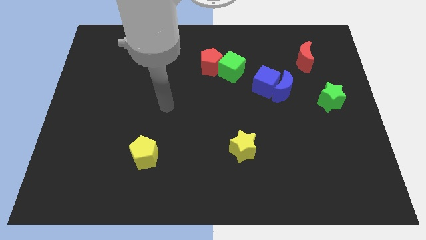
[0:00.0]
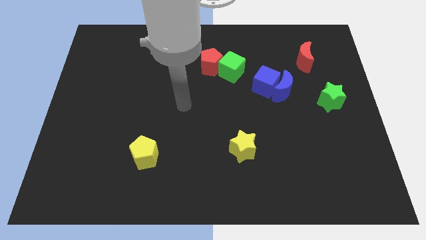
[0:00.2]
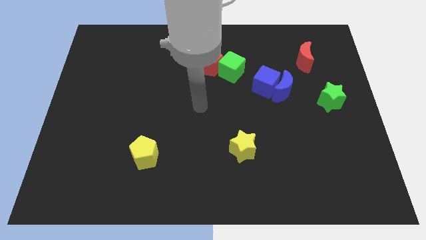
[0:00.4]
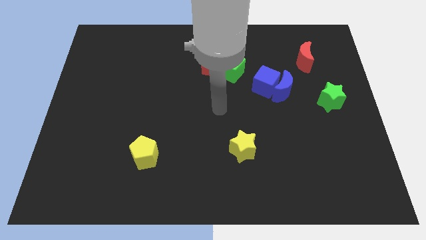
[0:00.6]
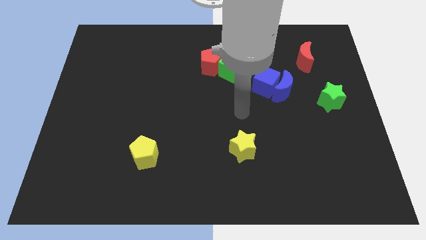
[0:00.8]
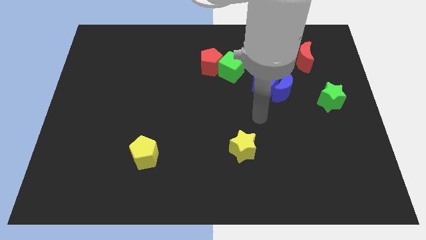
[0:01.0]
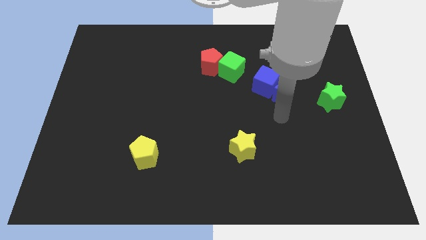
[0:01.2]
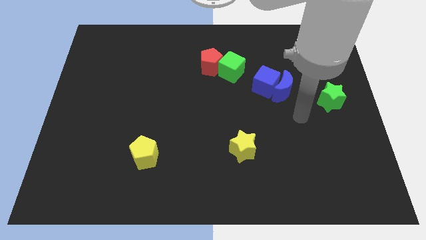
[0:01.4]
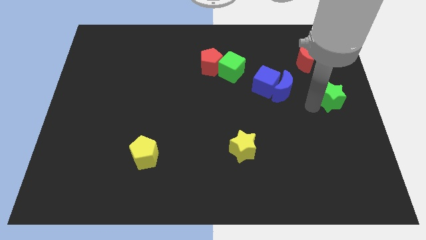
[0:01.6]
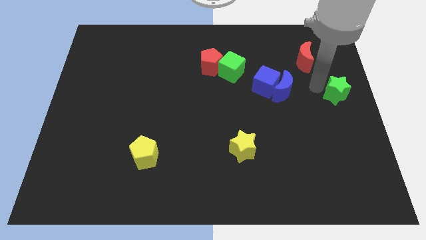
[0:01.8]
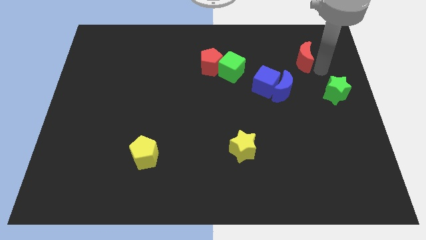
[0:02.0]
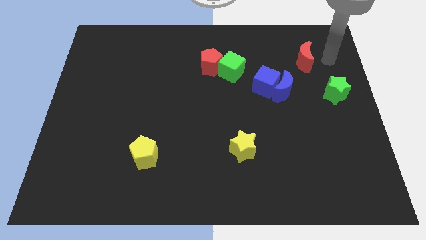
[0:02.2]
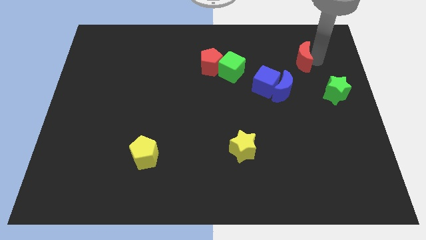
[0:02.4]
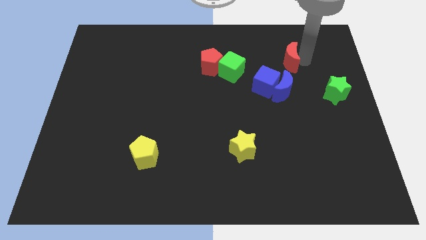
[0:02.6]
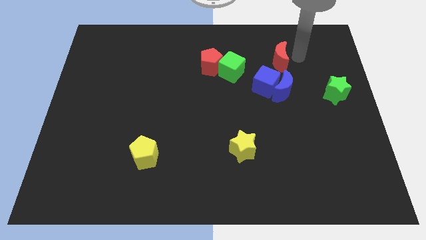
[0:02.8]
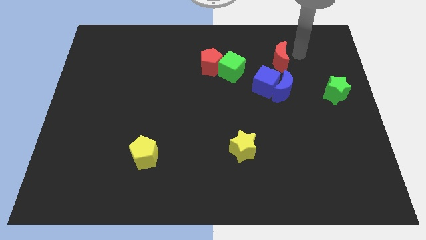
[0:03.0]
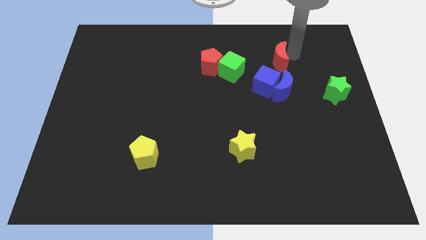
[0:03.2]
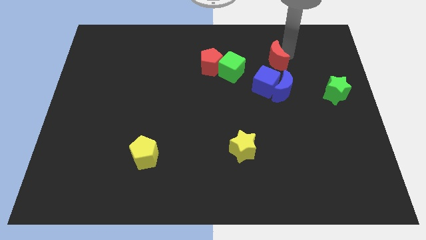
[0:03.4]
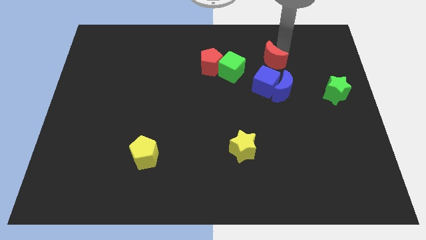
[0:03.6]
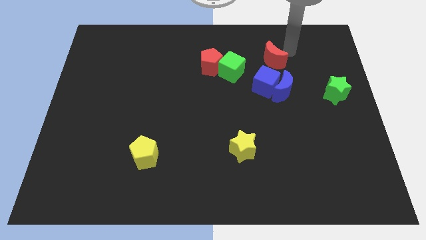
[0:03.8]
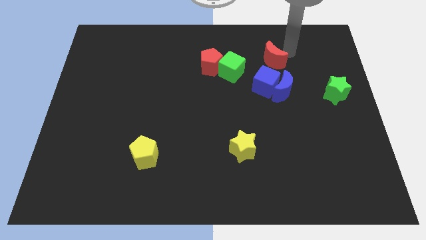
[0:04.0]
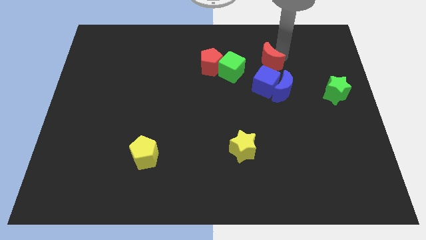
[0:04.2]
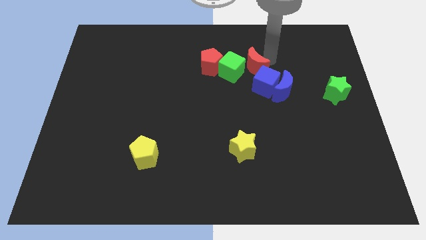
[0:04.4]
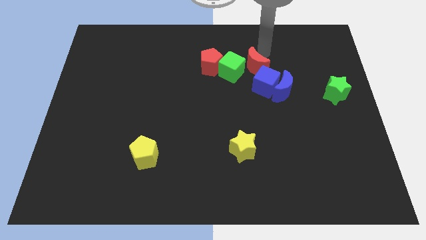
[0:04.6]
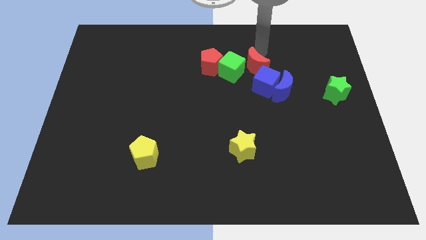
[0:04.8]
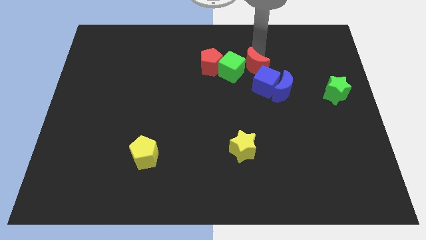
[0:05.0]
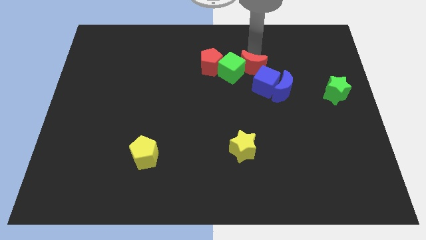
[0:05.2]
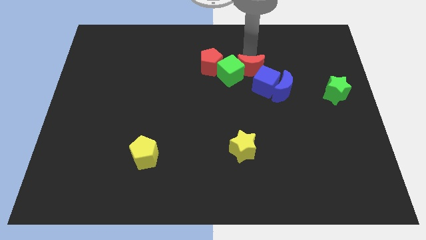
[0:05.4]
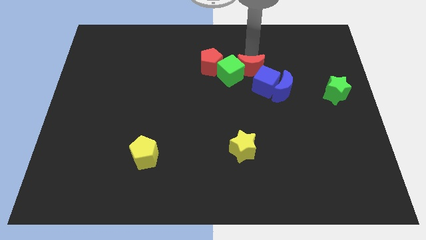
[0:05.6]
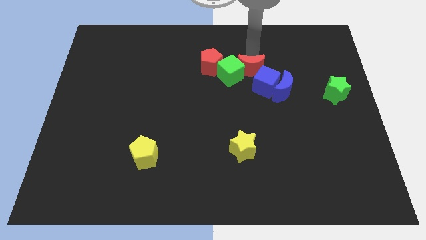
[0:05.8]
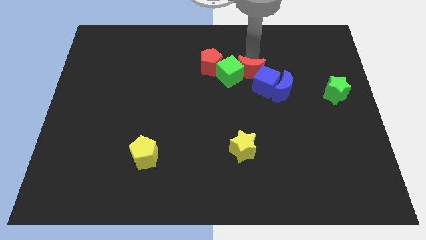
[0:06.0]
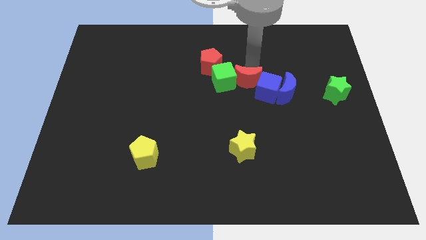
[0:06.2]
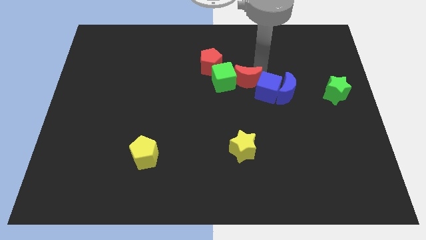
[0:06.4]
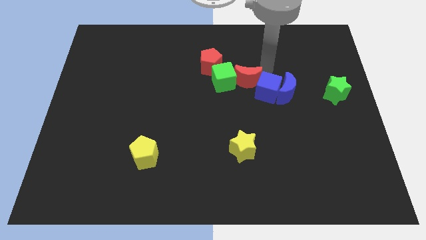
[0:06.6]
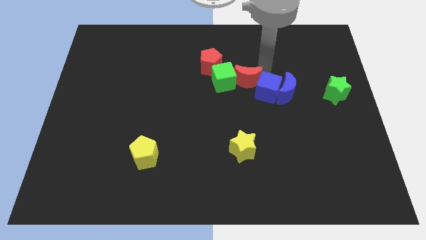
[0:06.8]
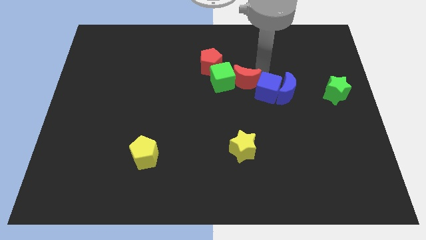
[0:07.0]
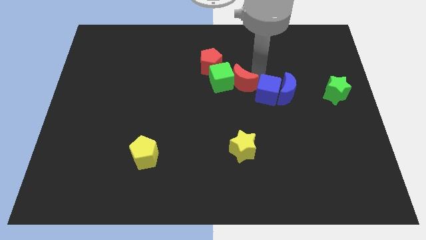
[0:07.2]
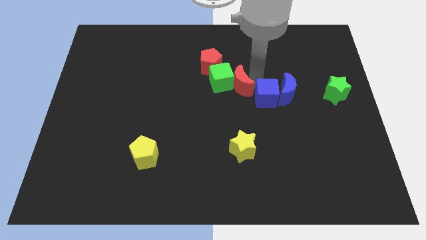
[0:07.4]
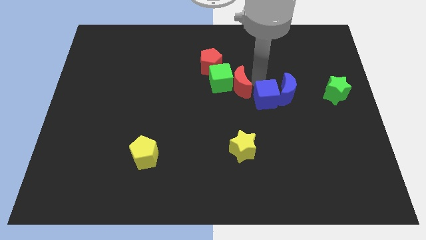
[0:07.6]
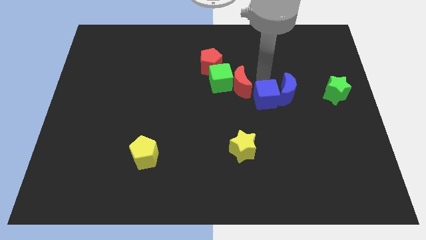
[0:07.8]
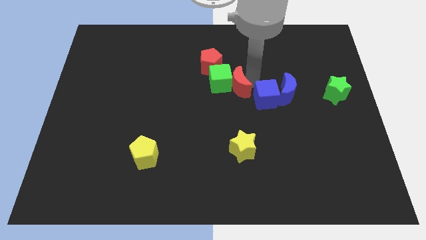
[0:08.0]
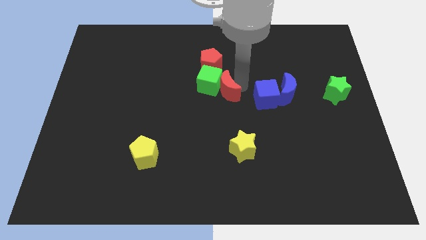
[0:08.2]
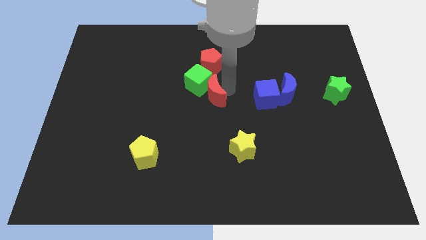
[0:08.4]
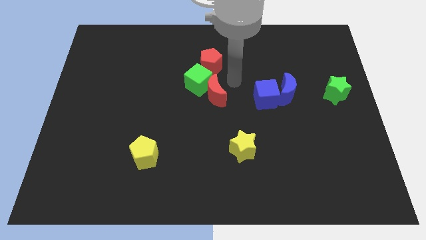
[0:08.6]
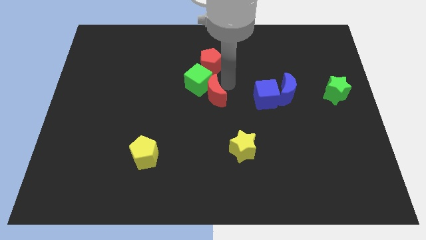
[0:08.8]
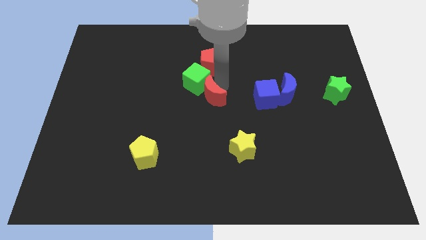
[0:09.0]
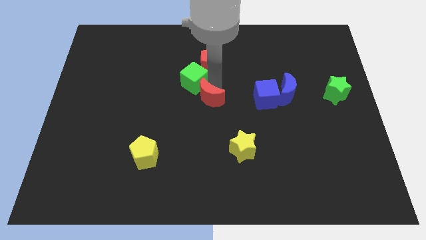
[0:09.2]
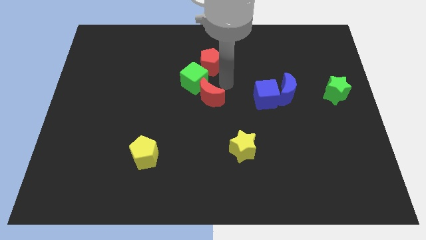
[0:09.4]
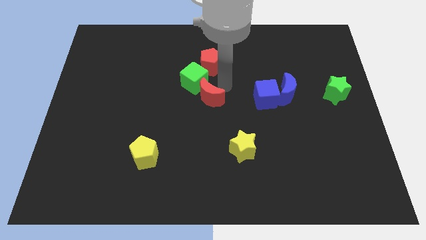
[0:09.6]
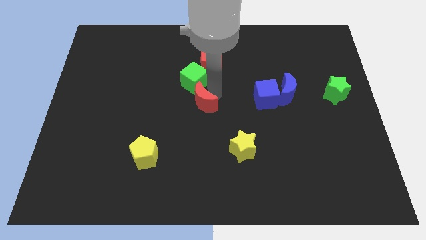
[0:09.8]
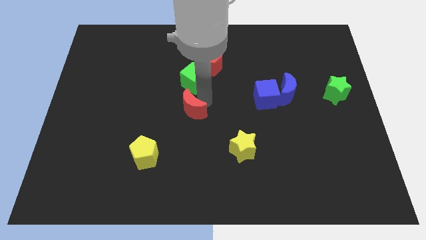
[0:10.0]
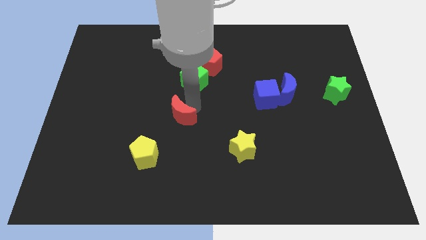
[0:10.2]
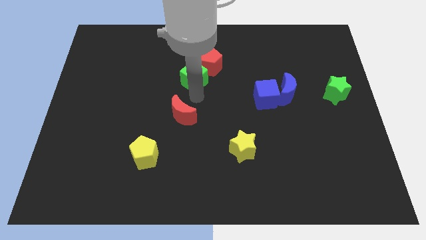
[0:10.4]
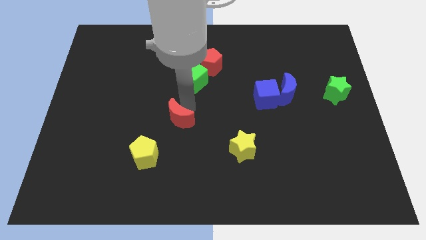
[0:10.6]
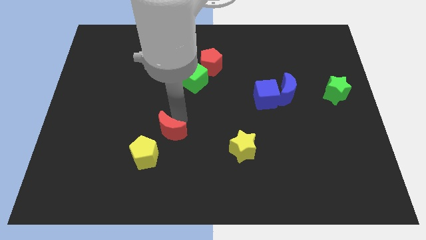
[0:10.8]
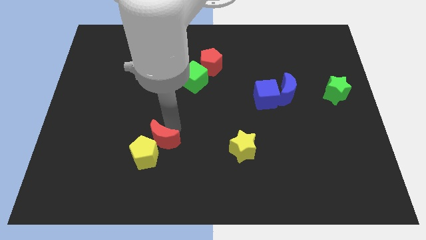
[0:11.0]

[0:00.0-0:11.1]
move the red moon next to the yellow pentagon

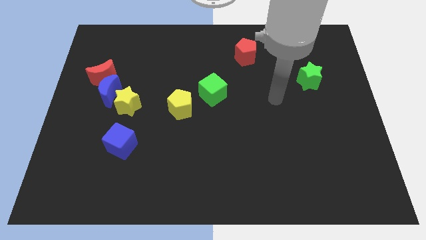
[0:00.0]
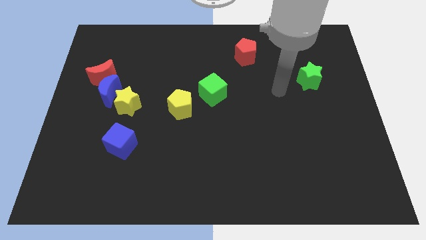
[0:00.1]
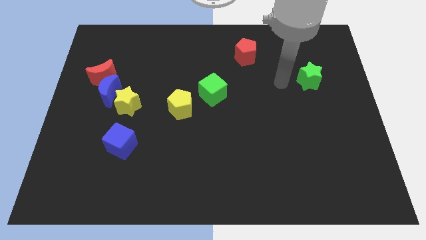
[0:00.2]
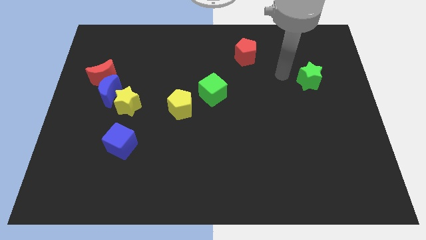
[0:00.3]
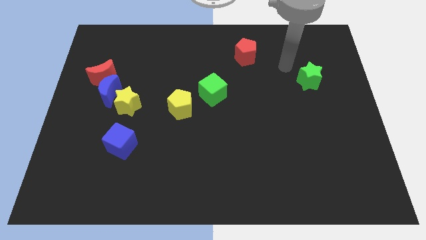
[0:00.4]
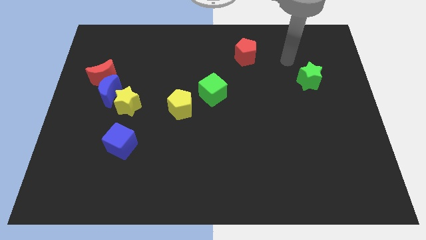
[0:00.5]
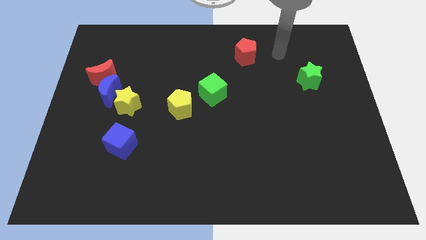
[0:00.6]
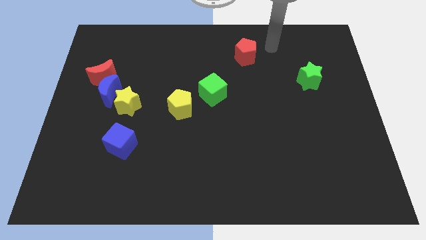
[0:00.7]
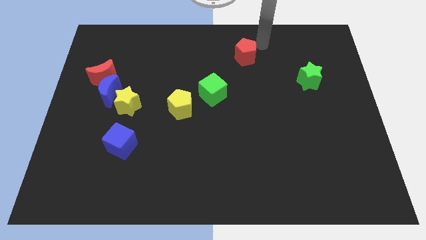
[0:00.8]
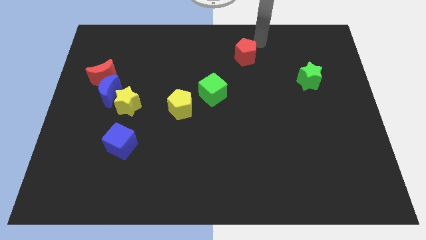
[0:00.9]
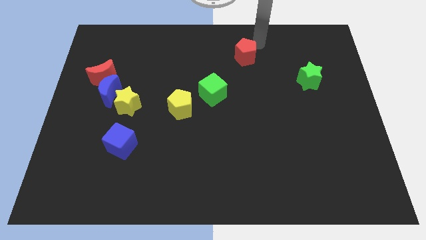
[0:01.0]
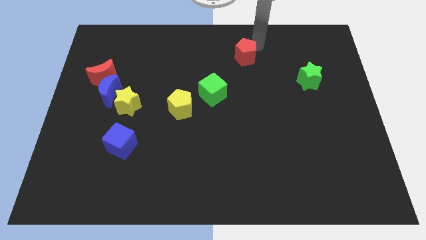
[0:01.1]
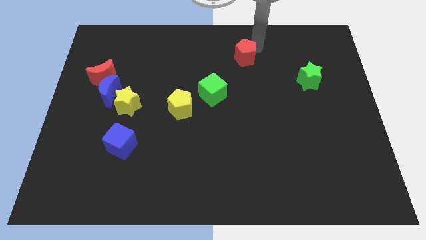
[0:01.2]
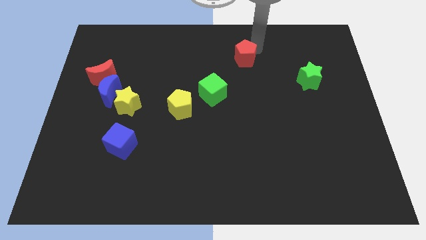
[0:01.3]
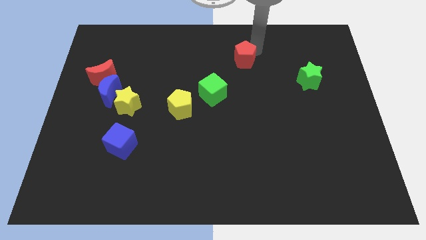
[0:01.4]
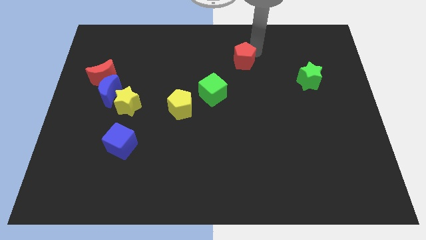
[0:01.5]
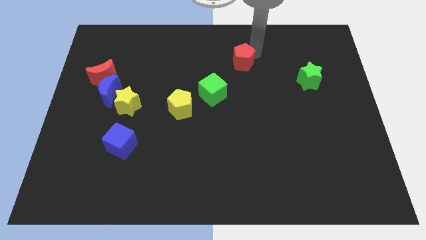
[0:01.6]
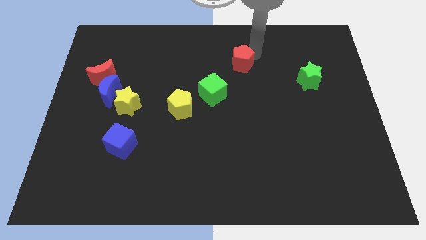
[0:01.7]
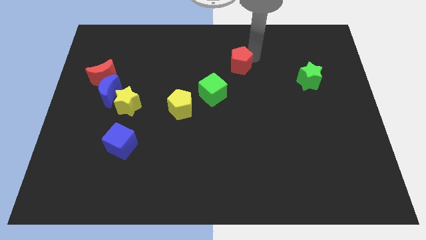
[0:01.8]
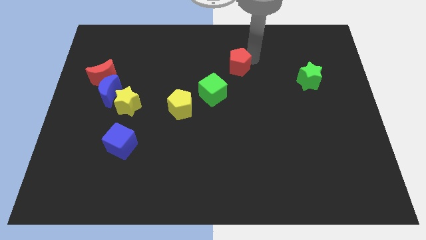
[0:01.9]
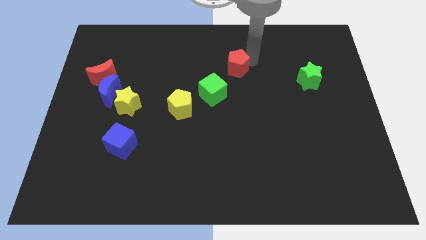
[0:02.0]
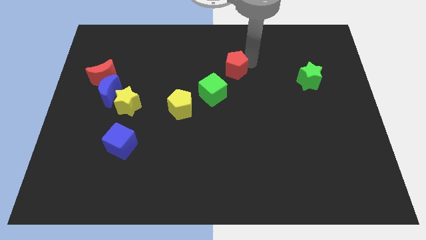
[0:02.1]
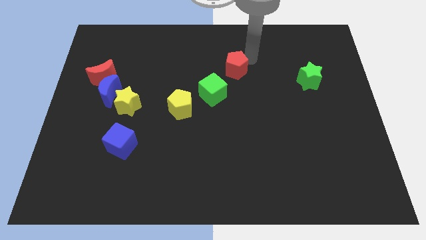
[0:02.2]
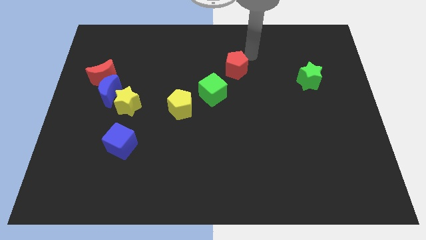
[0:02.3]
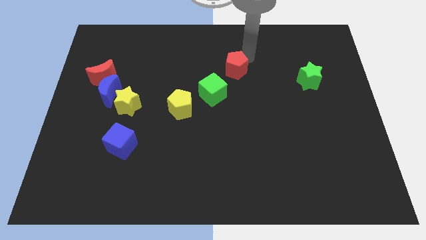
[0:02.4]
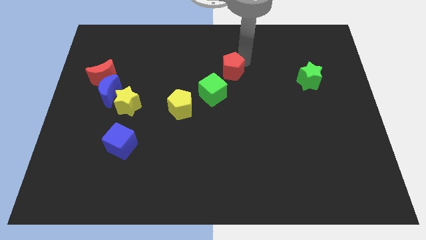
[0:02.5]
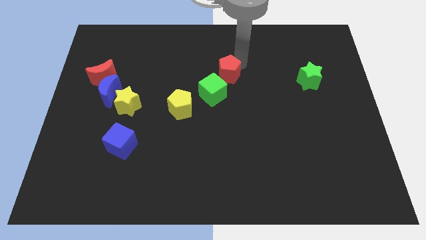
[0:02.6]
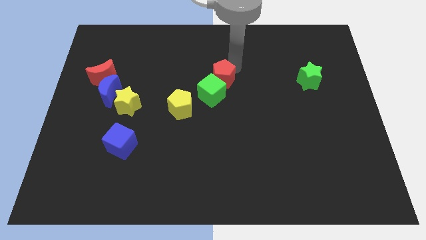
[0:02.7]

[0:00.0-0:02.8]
move the red pentagon next to the green cube
